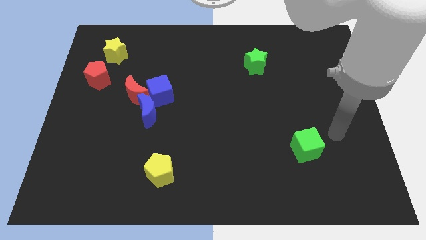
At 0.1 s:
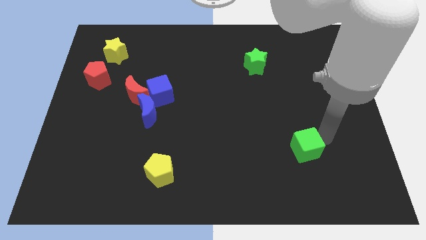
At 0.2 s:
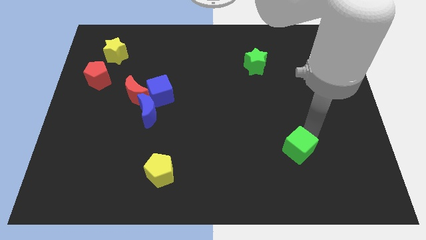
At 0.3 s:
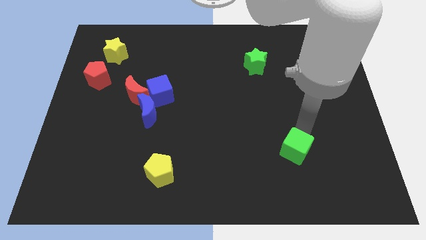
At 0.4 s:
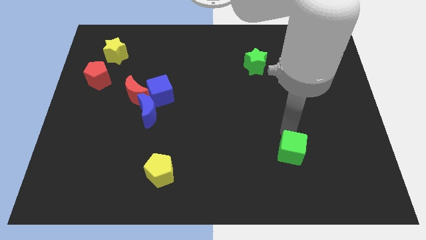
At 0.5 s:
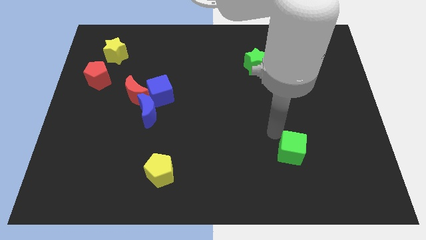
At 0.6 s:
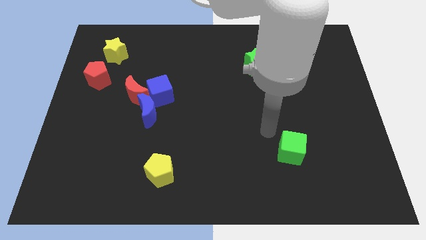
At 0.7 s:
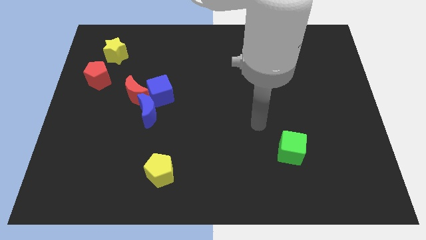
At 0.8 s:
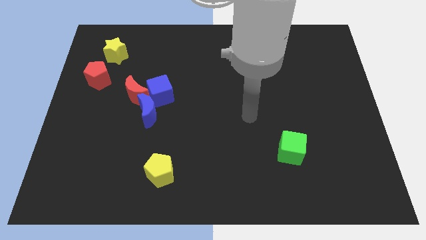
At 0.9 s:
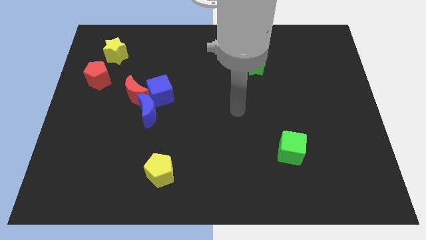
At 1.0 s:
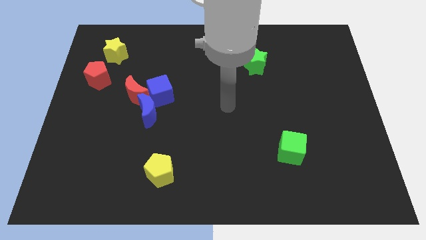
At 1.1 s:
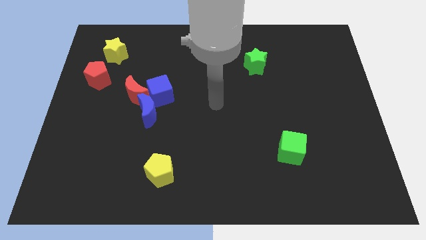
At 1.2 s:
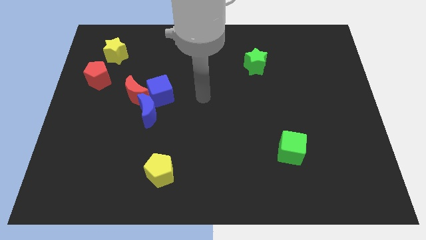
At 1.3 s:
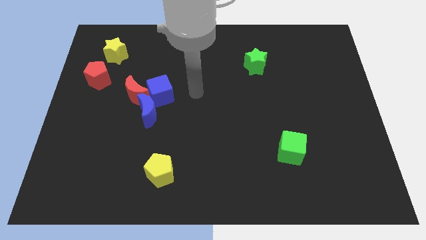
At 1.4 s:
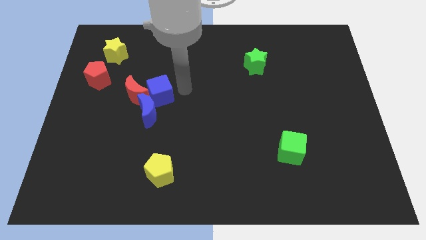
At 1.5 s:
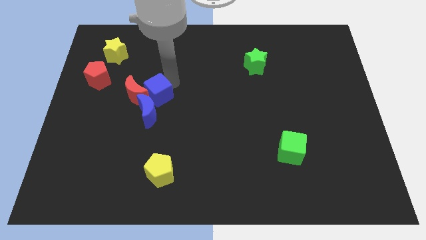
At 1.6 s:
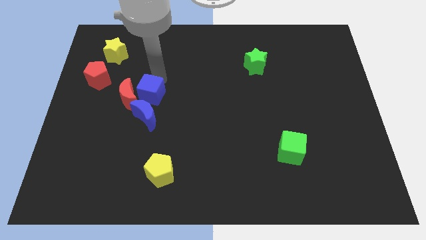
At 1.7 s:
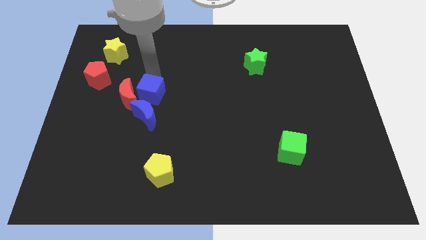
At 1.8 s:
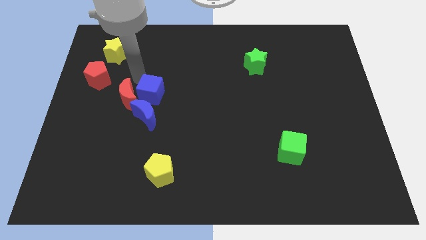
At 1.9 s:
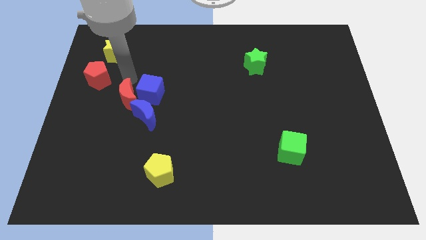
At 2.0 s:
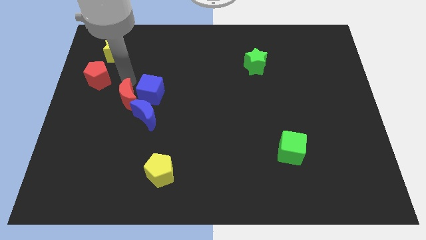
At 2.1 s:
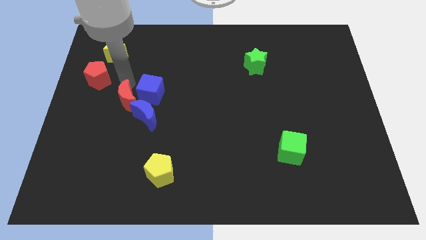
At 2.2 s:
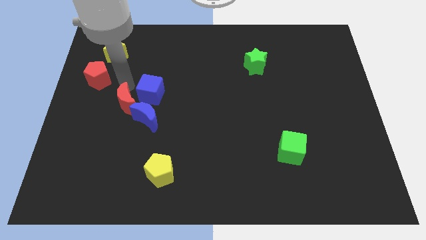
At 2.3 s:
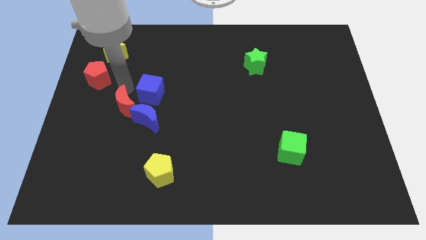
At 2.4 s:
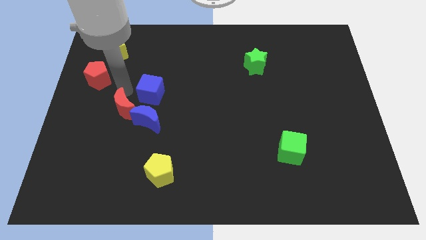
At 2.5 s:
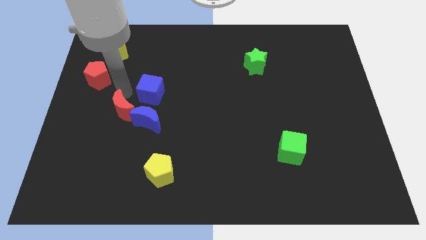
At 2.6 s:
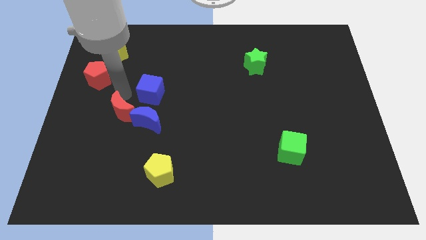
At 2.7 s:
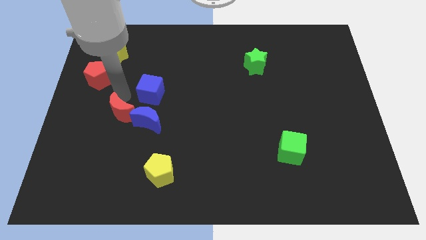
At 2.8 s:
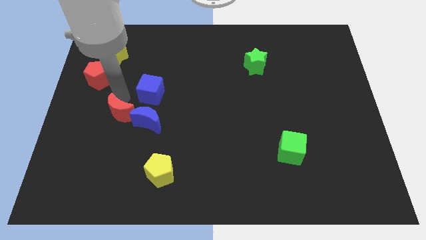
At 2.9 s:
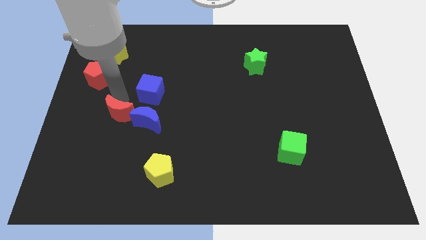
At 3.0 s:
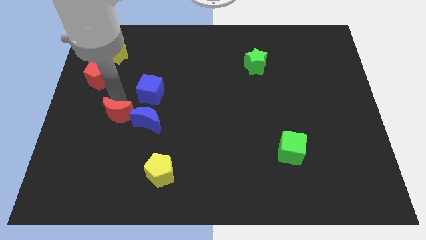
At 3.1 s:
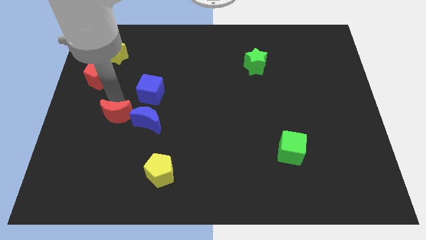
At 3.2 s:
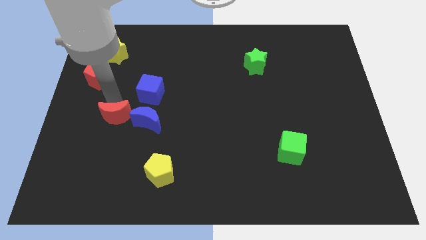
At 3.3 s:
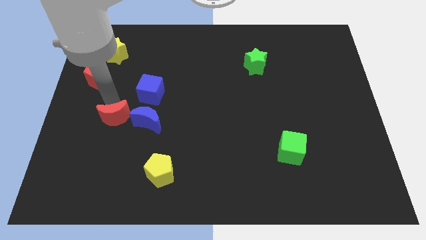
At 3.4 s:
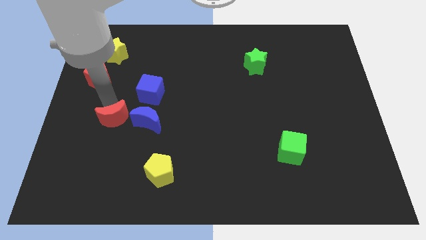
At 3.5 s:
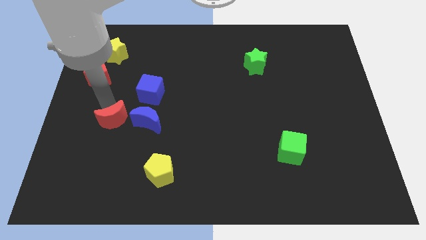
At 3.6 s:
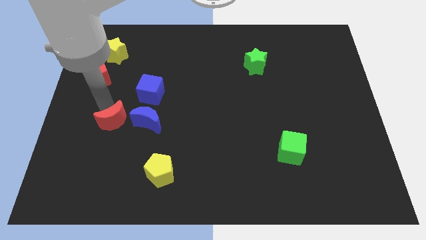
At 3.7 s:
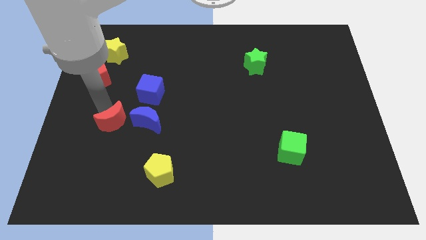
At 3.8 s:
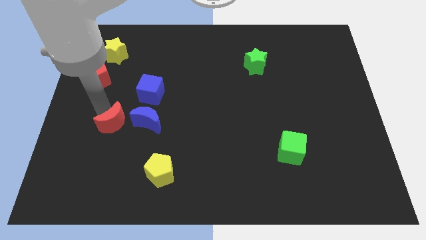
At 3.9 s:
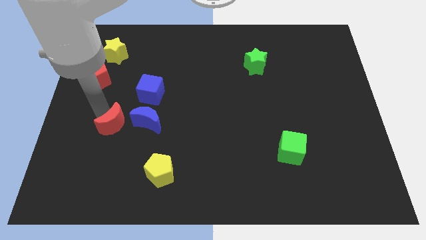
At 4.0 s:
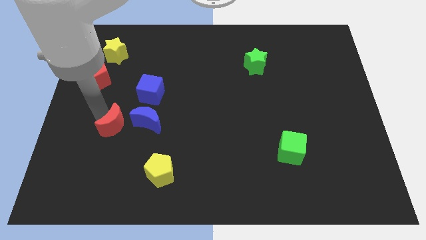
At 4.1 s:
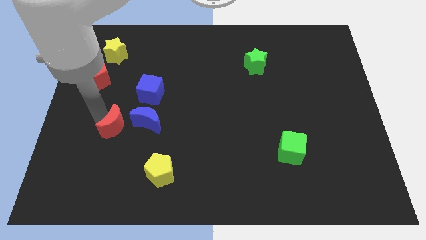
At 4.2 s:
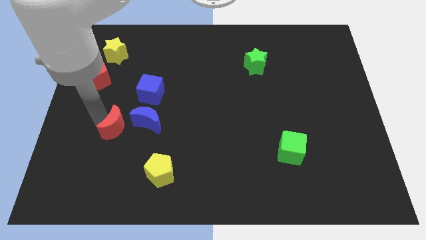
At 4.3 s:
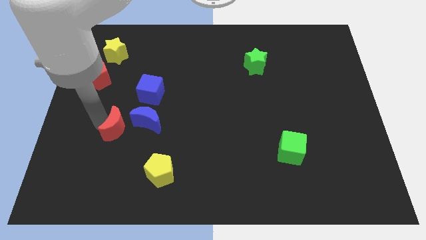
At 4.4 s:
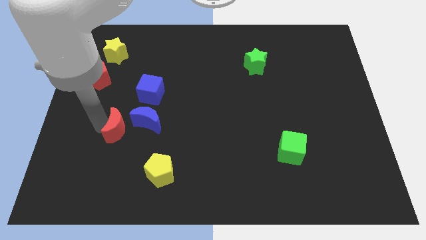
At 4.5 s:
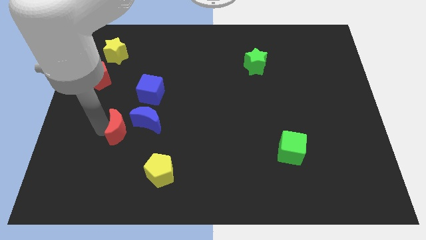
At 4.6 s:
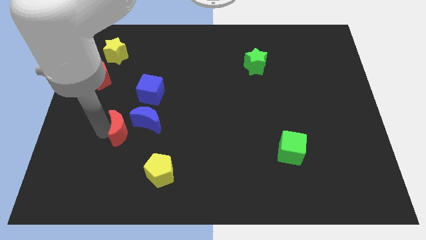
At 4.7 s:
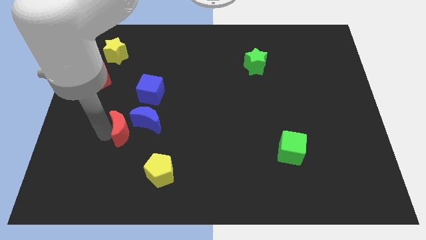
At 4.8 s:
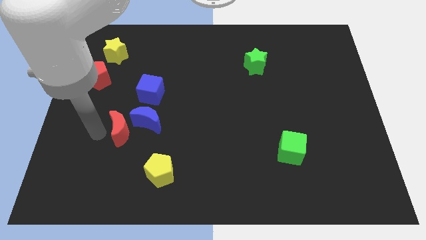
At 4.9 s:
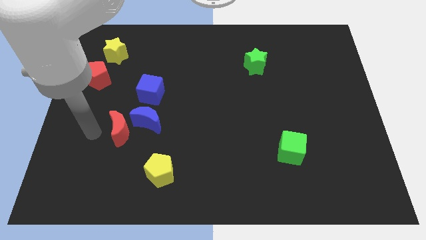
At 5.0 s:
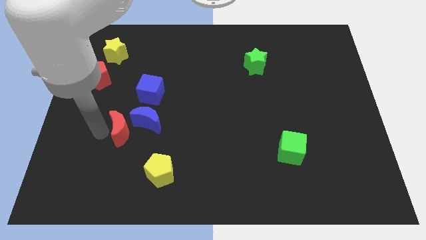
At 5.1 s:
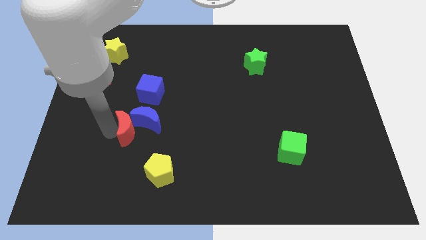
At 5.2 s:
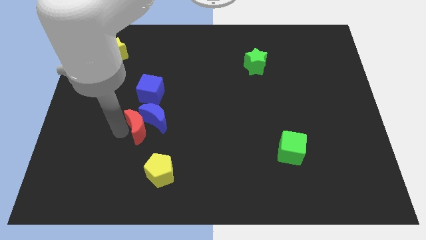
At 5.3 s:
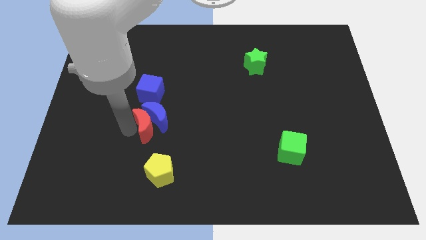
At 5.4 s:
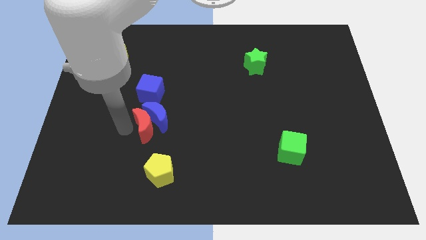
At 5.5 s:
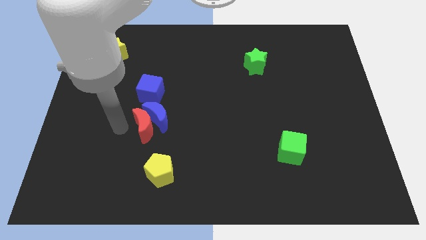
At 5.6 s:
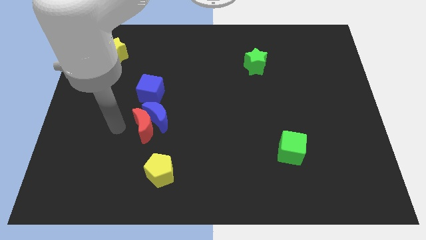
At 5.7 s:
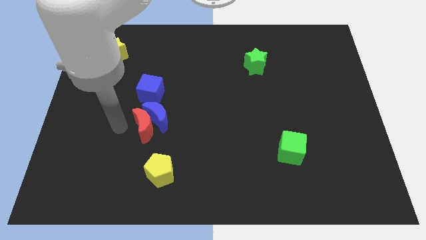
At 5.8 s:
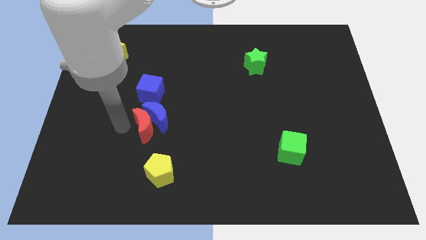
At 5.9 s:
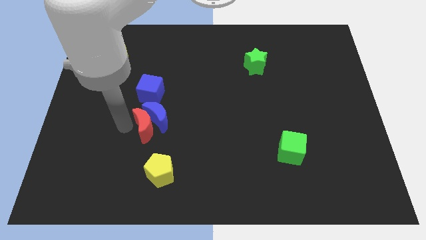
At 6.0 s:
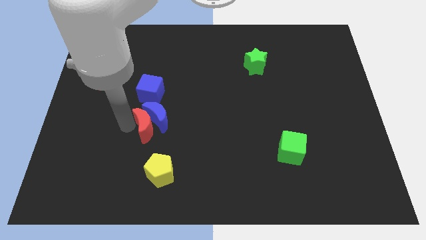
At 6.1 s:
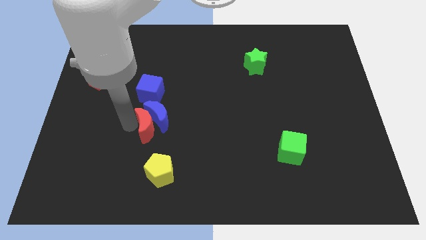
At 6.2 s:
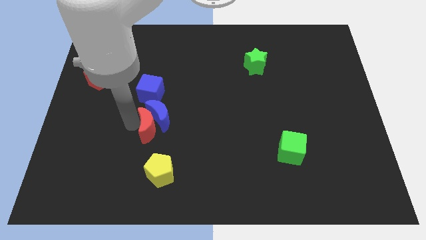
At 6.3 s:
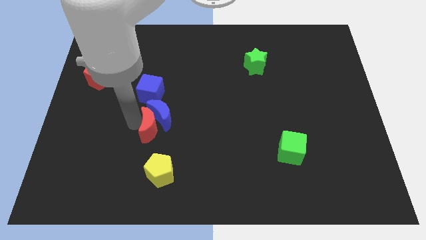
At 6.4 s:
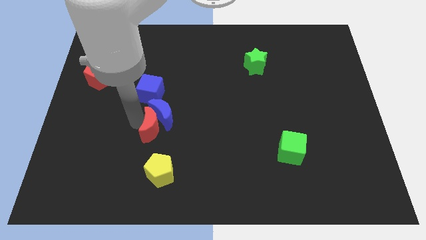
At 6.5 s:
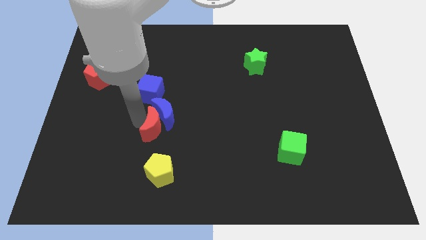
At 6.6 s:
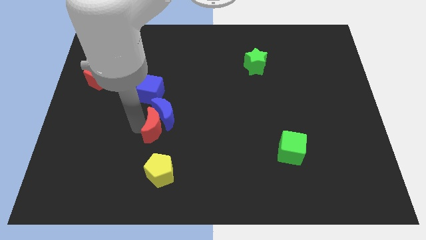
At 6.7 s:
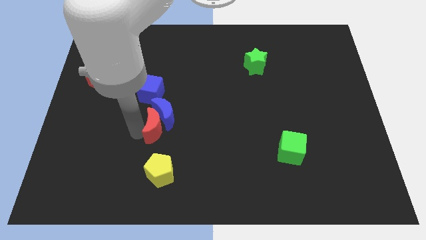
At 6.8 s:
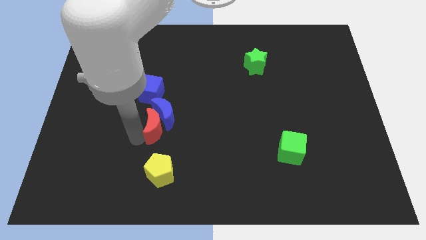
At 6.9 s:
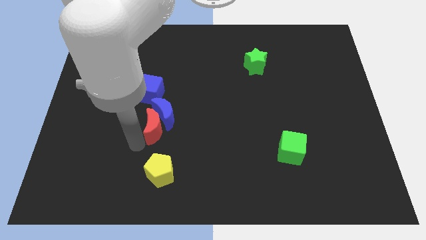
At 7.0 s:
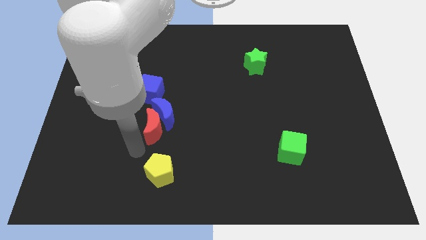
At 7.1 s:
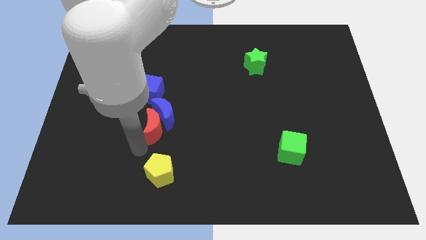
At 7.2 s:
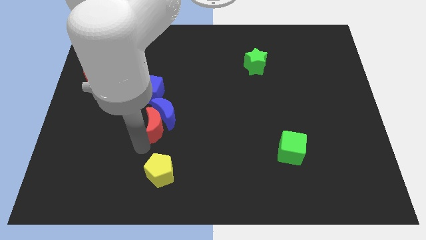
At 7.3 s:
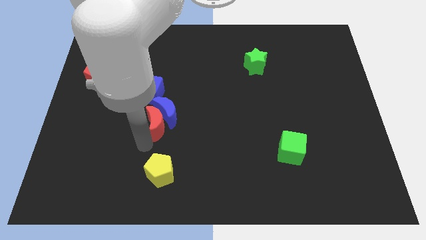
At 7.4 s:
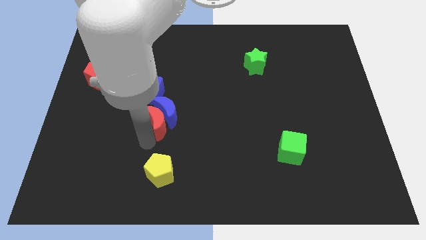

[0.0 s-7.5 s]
slide the red moon to the bottom right of the blue cube
